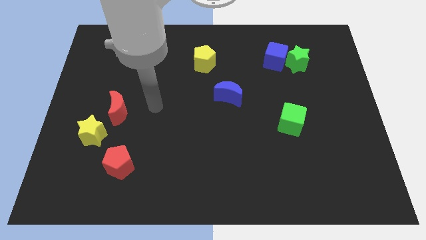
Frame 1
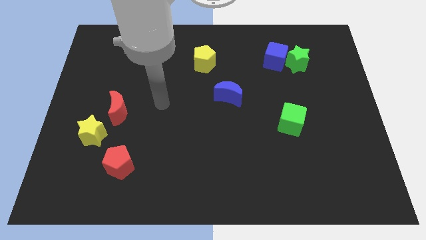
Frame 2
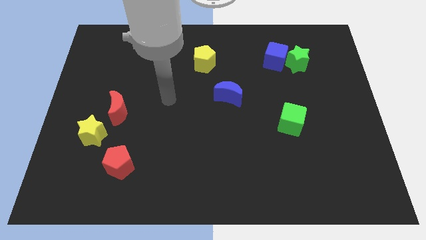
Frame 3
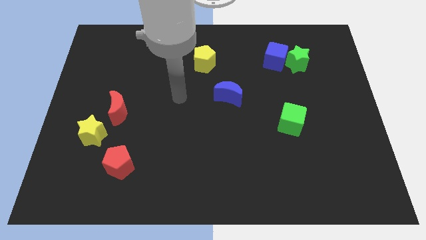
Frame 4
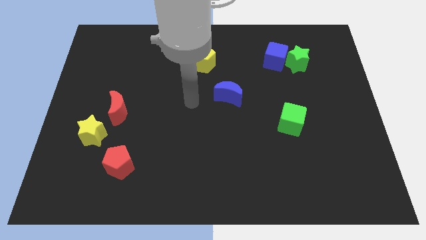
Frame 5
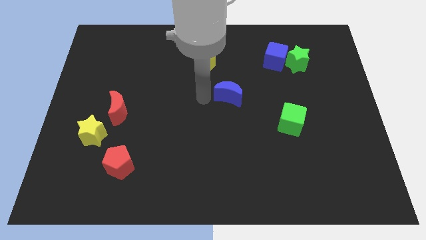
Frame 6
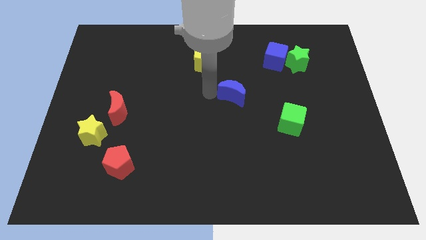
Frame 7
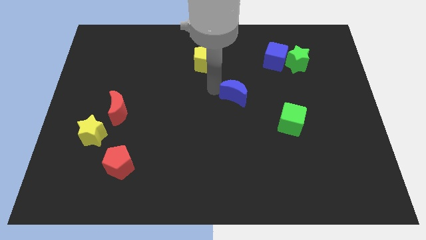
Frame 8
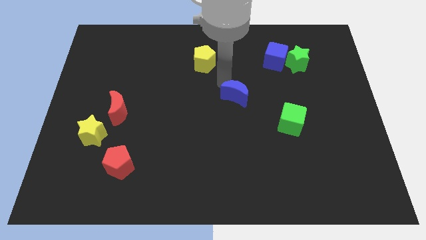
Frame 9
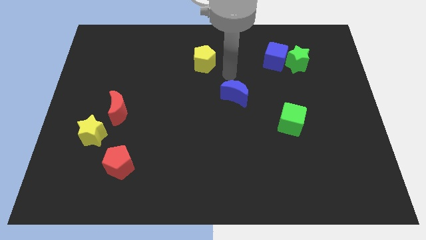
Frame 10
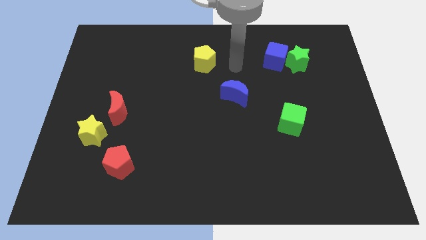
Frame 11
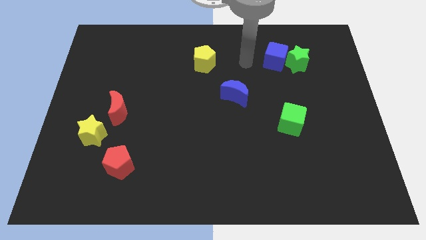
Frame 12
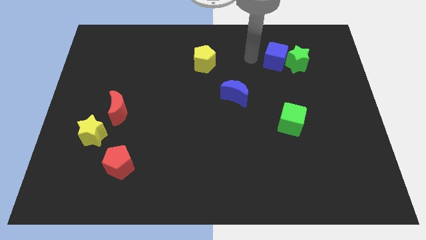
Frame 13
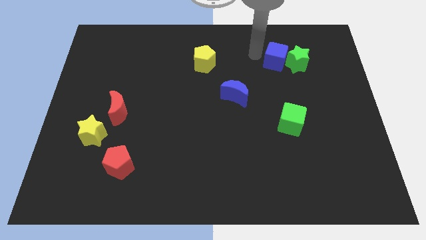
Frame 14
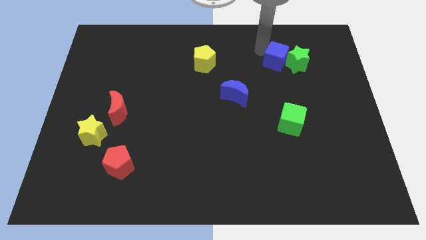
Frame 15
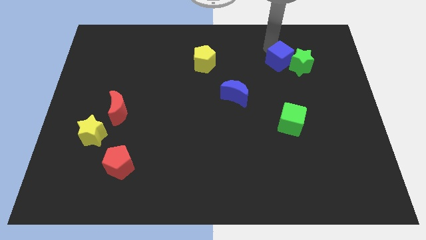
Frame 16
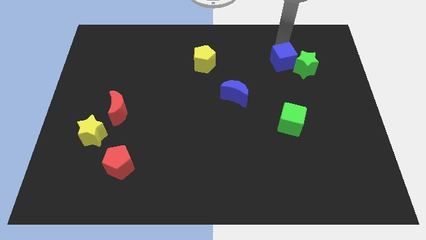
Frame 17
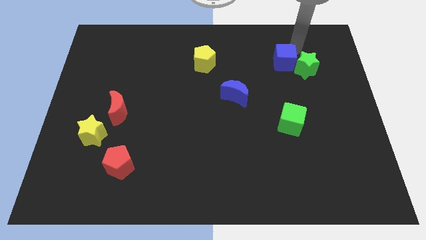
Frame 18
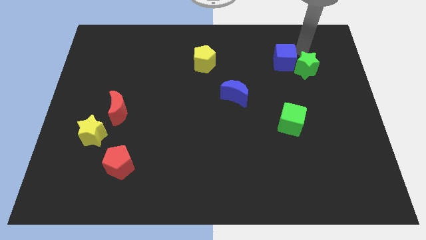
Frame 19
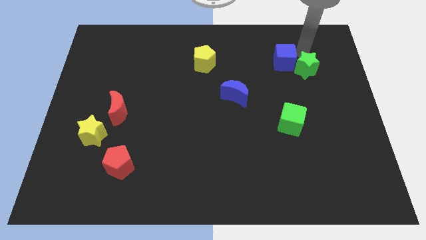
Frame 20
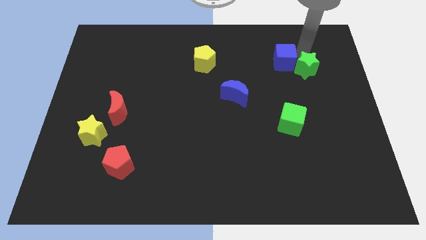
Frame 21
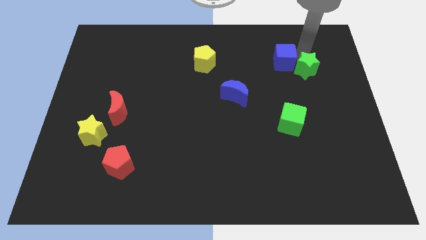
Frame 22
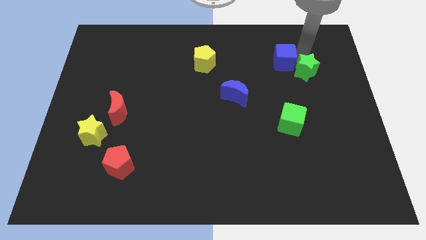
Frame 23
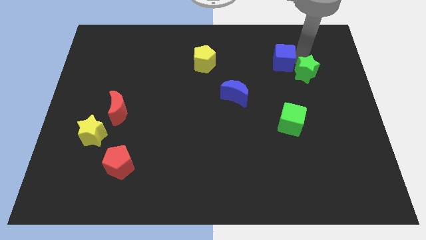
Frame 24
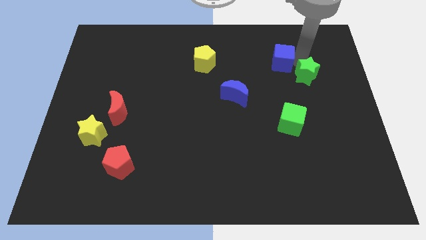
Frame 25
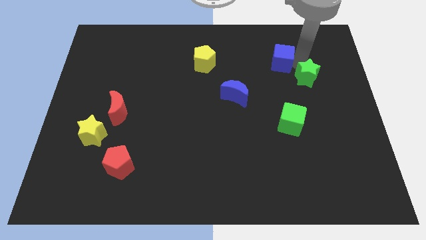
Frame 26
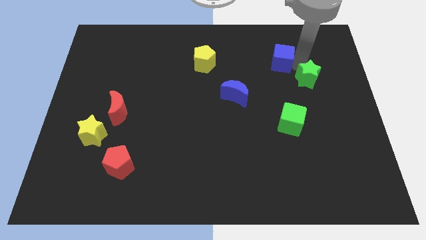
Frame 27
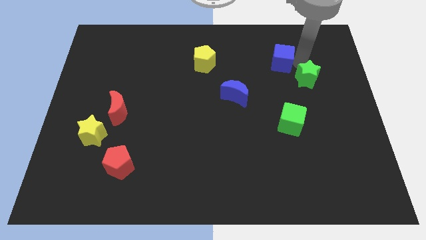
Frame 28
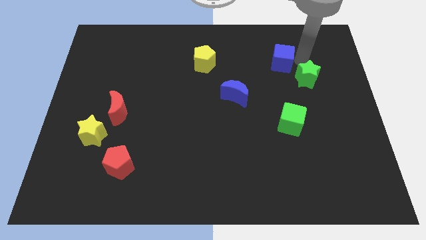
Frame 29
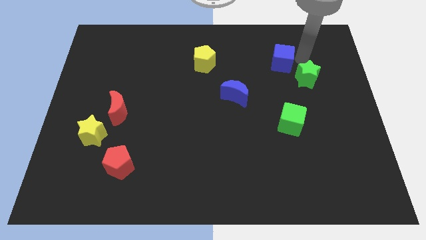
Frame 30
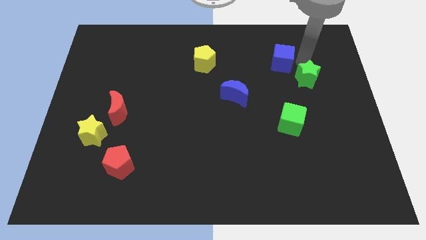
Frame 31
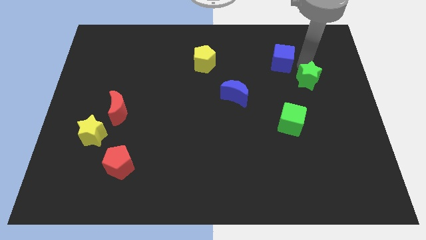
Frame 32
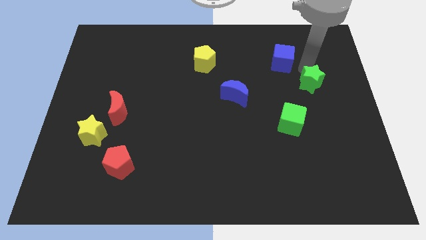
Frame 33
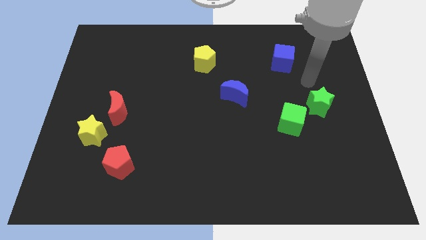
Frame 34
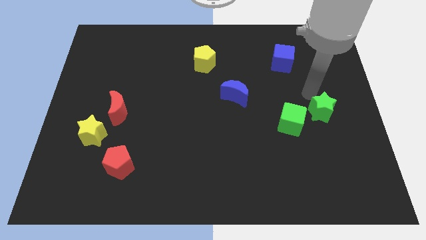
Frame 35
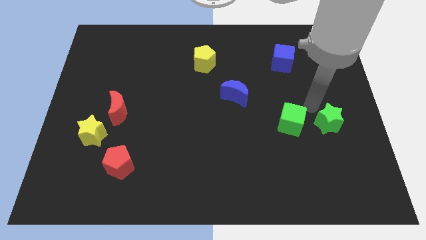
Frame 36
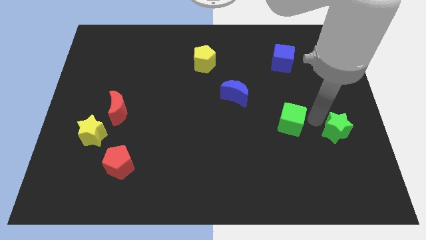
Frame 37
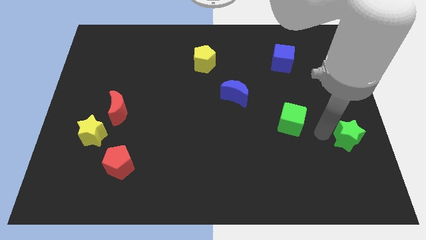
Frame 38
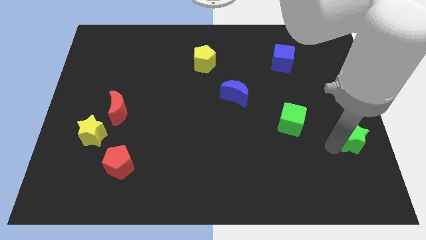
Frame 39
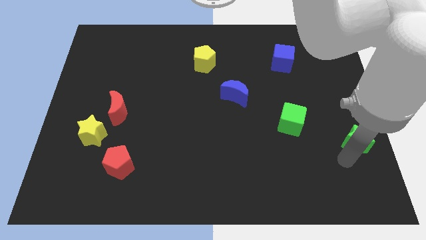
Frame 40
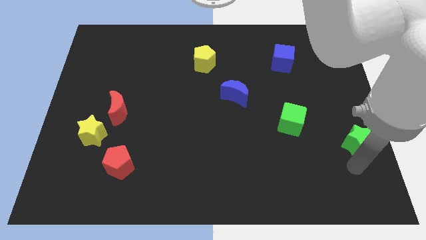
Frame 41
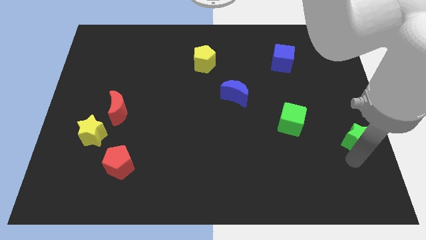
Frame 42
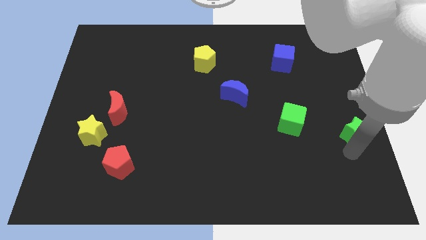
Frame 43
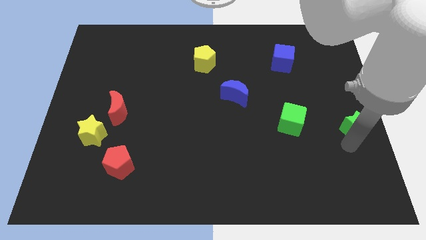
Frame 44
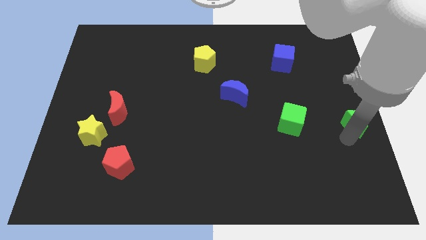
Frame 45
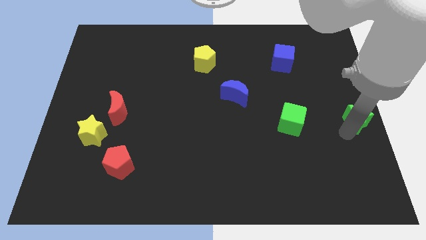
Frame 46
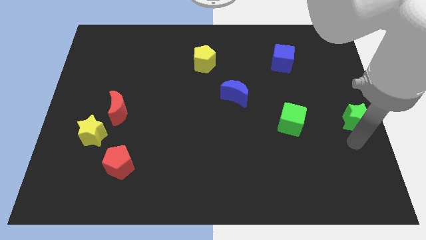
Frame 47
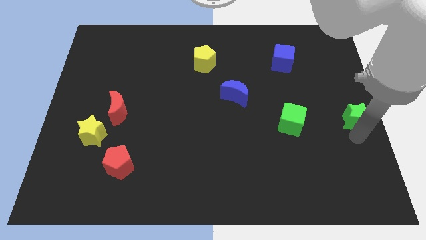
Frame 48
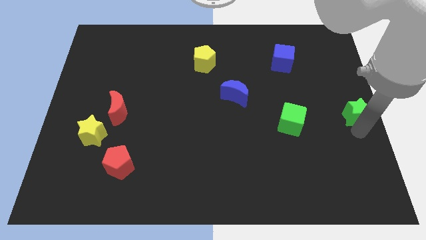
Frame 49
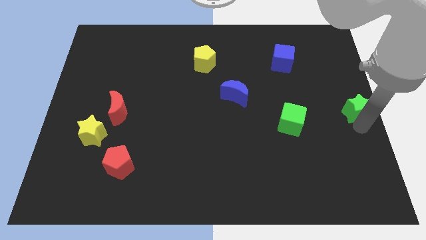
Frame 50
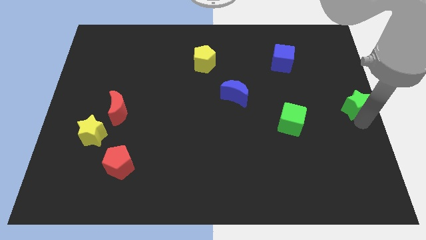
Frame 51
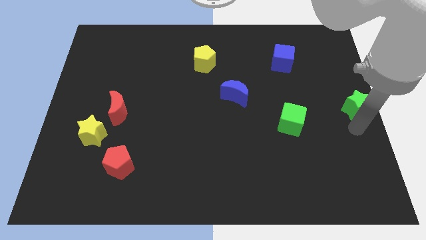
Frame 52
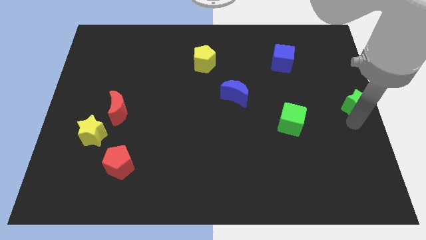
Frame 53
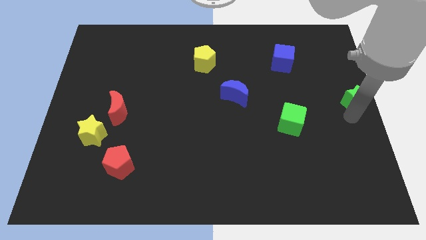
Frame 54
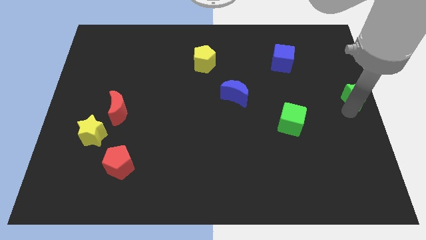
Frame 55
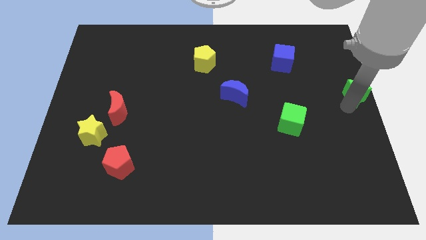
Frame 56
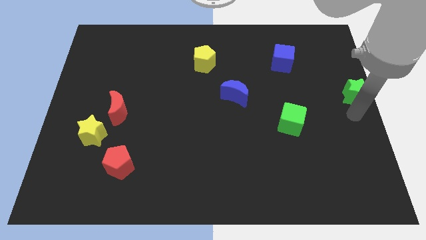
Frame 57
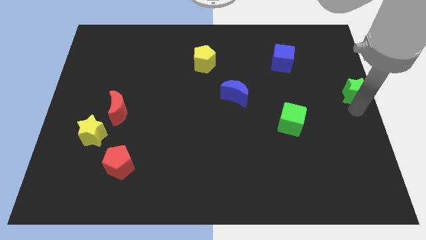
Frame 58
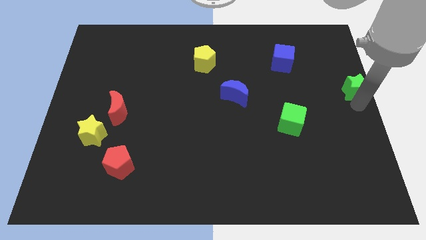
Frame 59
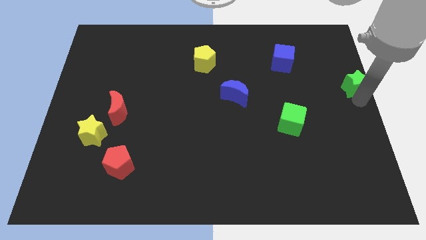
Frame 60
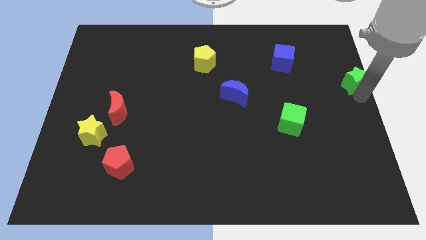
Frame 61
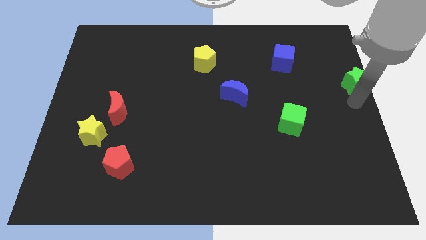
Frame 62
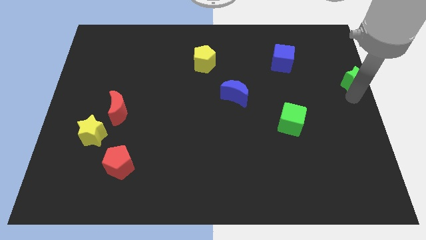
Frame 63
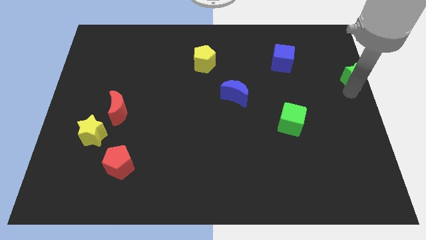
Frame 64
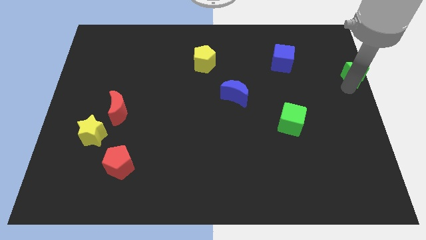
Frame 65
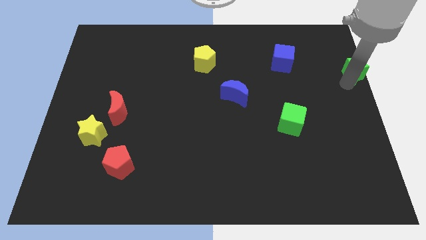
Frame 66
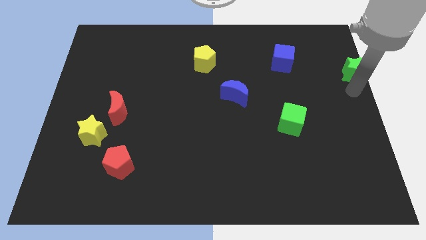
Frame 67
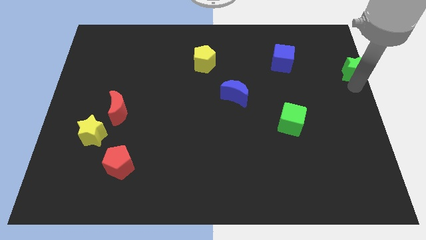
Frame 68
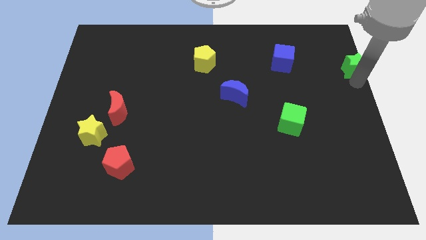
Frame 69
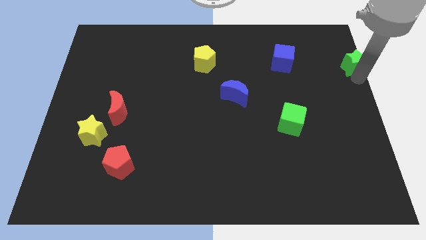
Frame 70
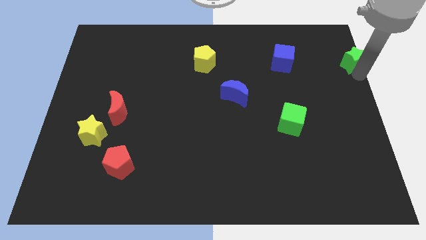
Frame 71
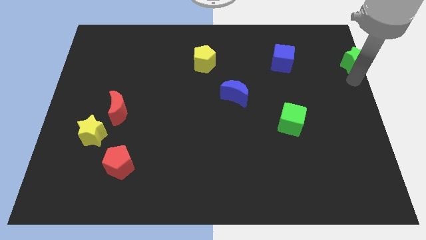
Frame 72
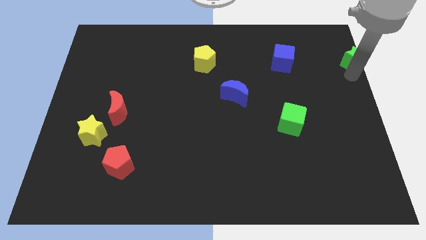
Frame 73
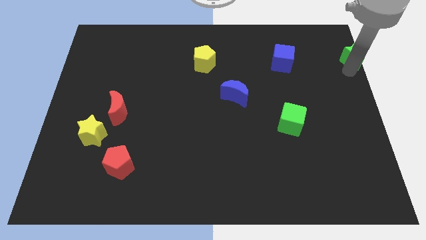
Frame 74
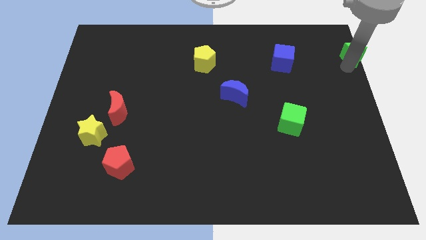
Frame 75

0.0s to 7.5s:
put the green star to the top right corner
